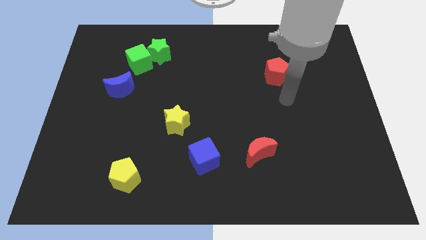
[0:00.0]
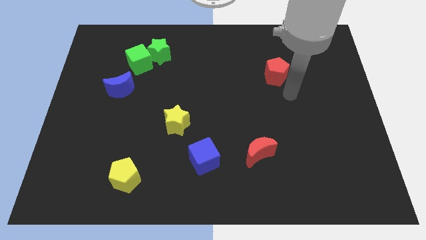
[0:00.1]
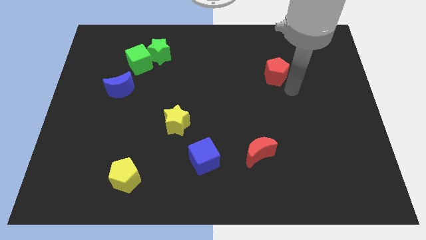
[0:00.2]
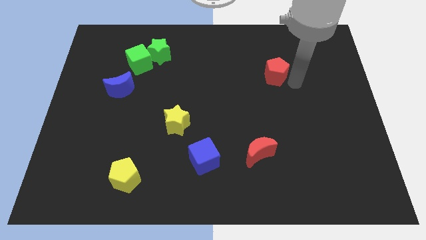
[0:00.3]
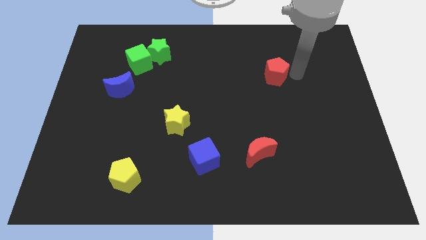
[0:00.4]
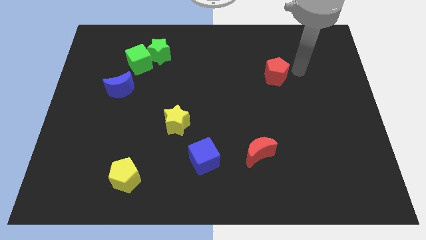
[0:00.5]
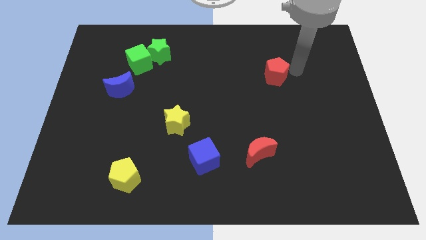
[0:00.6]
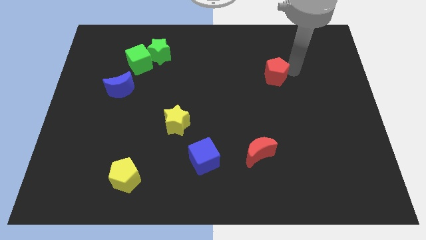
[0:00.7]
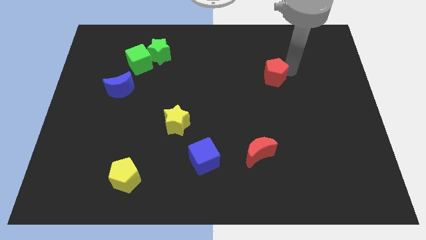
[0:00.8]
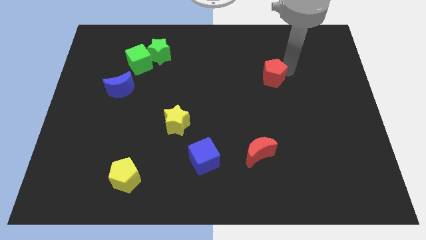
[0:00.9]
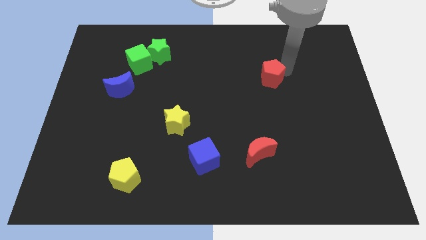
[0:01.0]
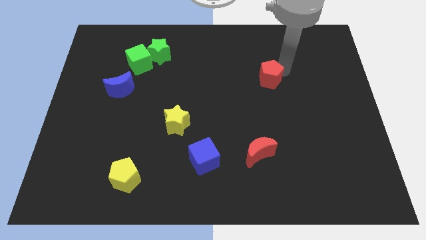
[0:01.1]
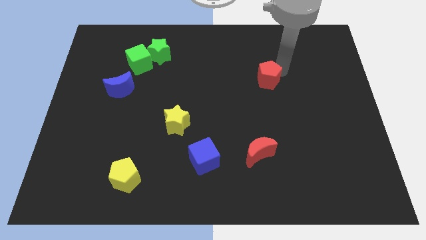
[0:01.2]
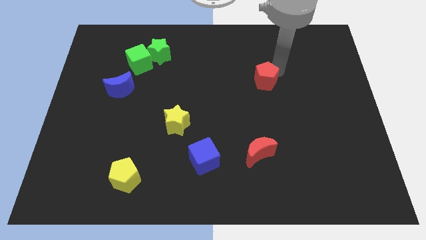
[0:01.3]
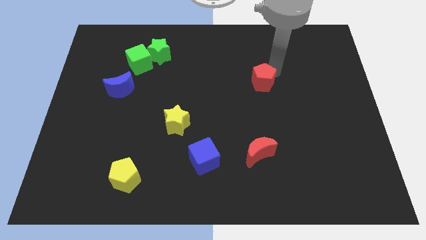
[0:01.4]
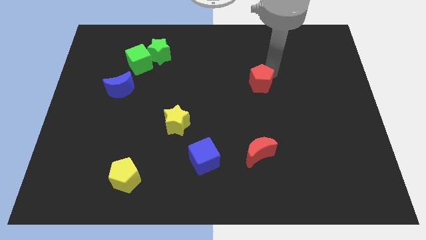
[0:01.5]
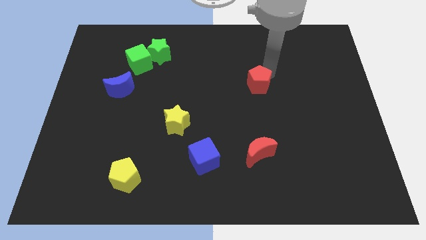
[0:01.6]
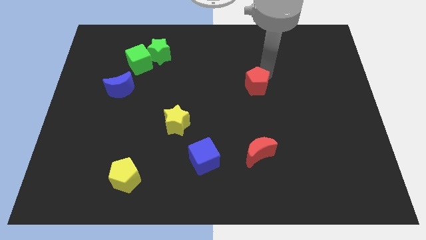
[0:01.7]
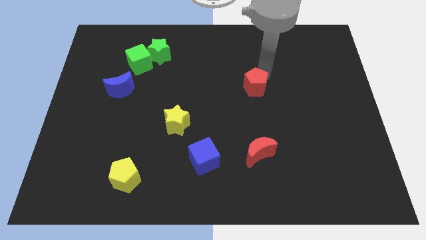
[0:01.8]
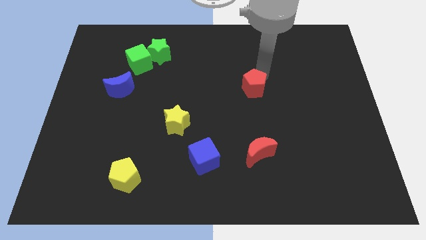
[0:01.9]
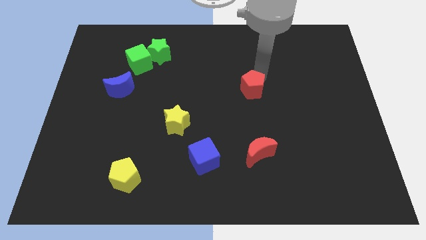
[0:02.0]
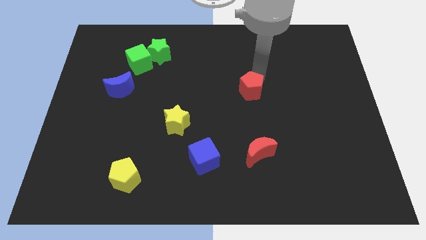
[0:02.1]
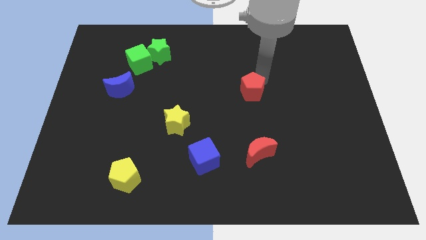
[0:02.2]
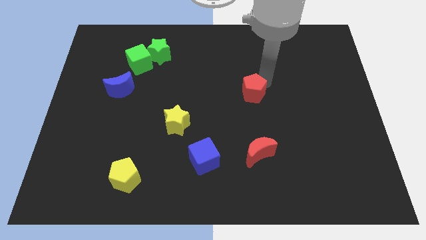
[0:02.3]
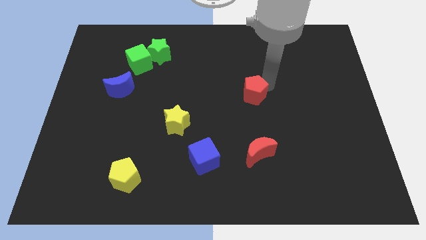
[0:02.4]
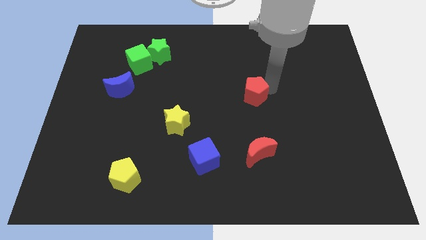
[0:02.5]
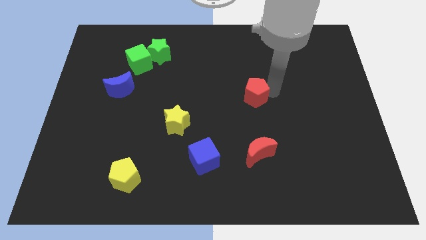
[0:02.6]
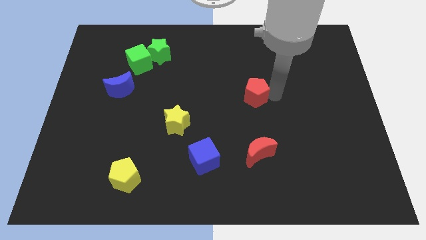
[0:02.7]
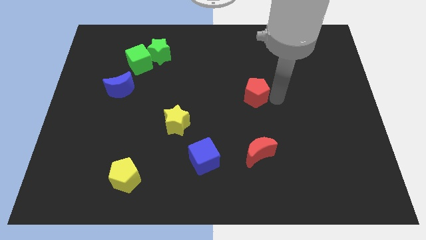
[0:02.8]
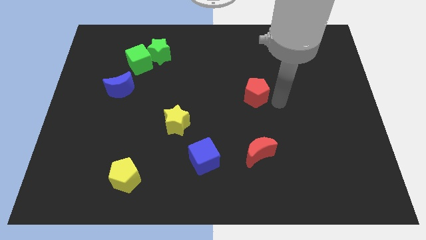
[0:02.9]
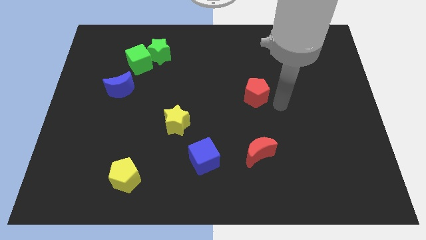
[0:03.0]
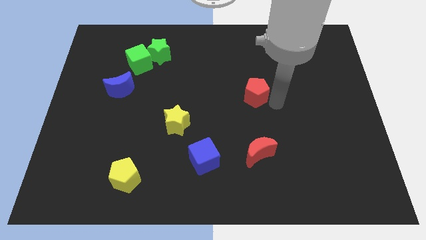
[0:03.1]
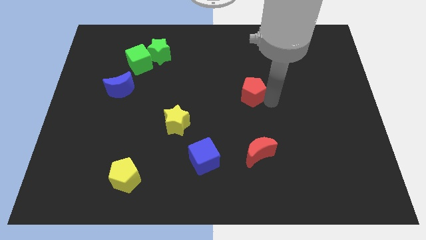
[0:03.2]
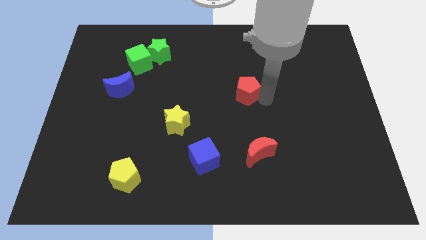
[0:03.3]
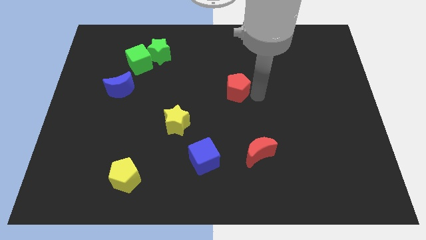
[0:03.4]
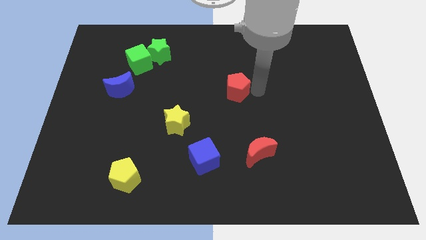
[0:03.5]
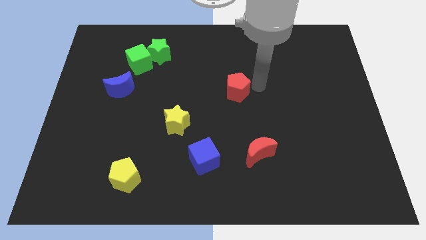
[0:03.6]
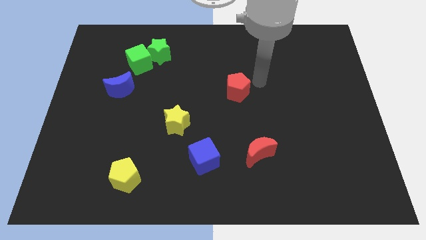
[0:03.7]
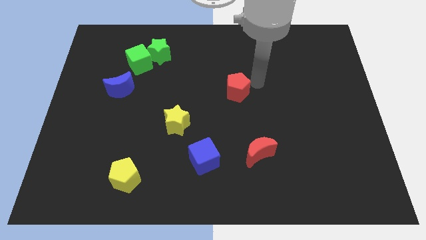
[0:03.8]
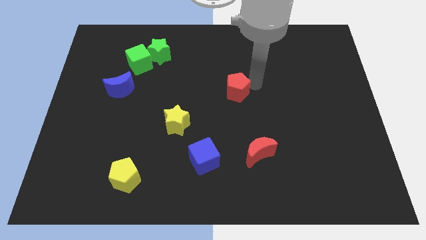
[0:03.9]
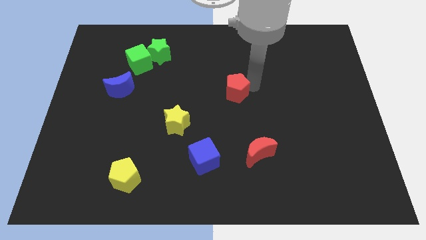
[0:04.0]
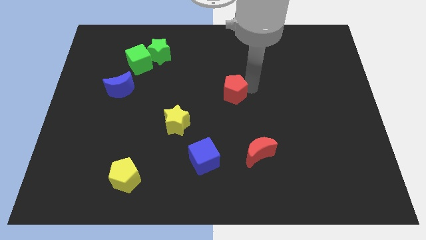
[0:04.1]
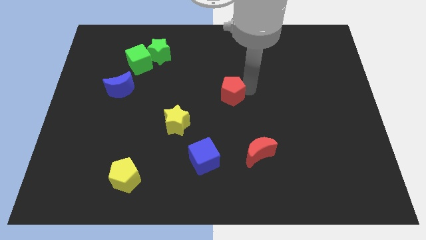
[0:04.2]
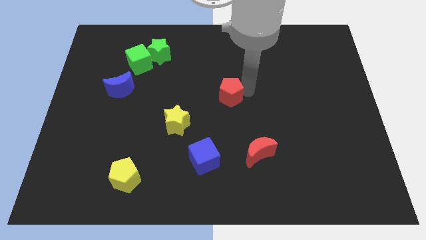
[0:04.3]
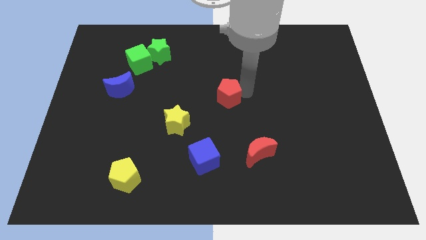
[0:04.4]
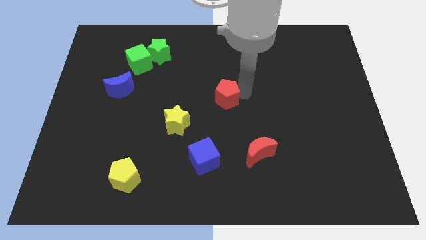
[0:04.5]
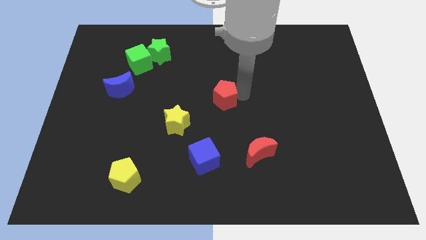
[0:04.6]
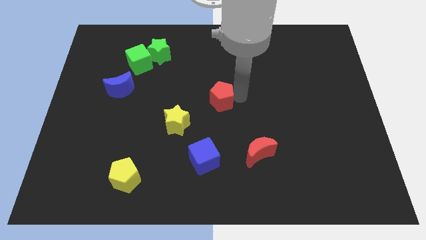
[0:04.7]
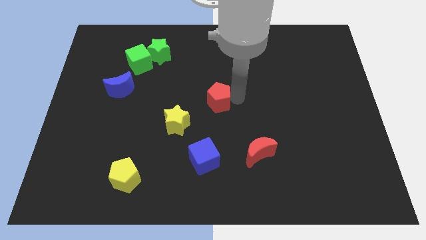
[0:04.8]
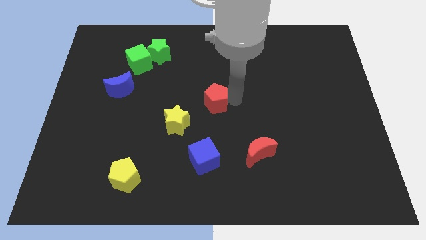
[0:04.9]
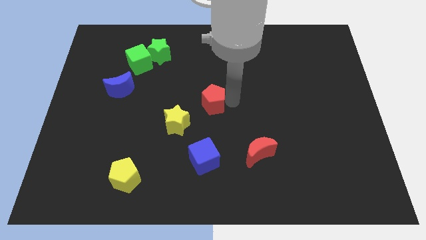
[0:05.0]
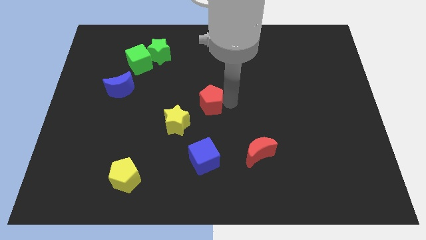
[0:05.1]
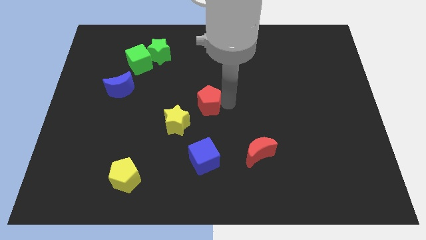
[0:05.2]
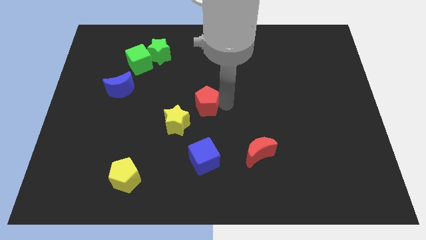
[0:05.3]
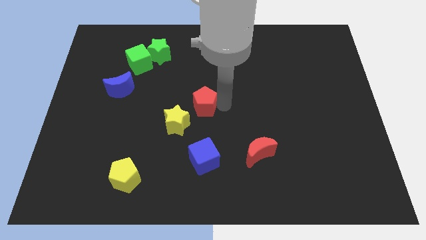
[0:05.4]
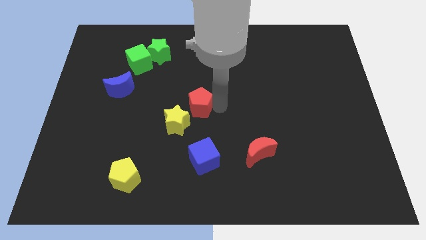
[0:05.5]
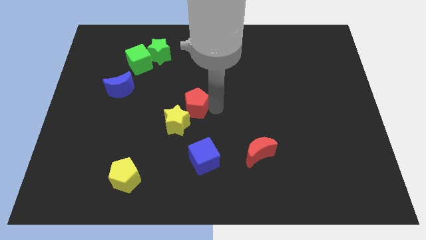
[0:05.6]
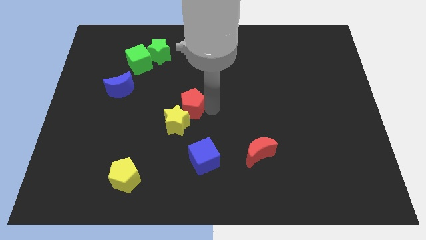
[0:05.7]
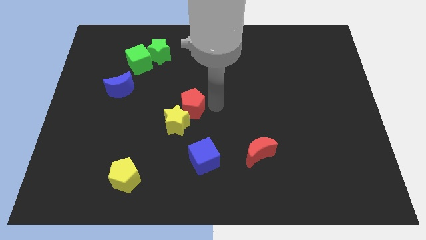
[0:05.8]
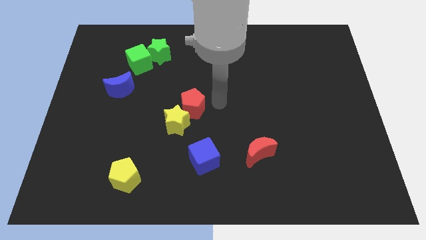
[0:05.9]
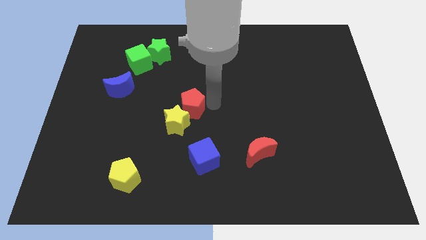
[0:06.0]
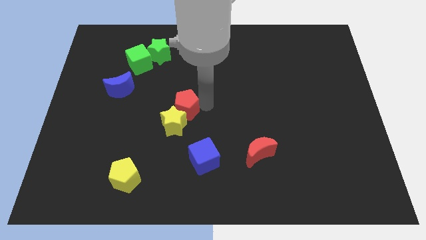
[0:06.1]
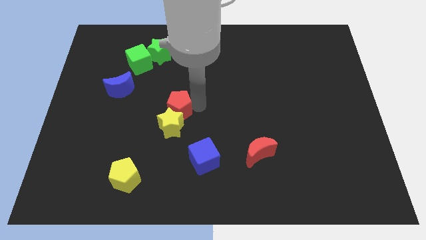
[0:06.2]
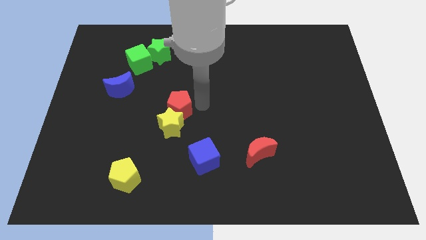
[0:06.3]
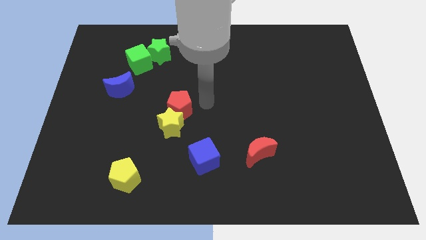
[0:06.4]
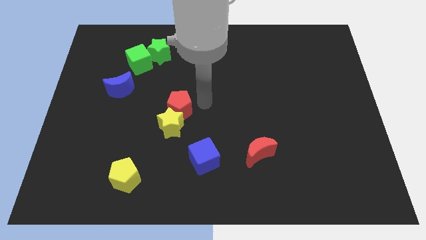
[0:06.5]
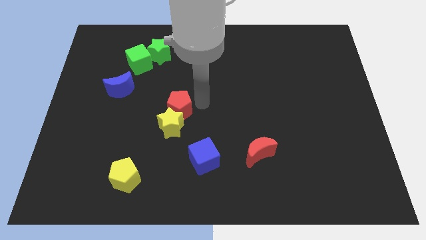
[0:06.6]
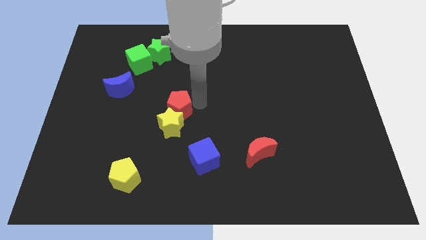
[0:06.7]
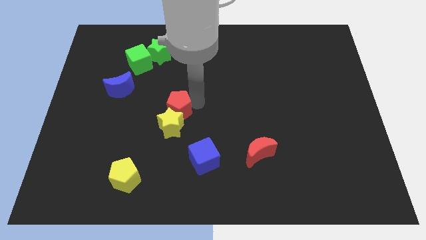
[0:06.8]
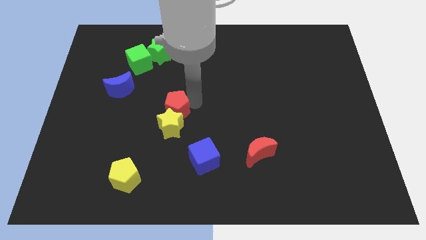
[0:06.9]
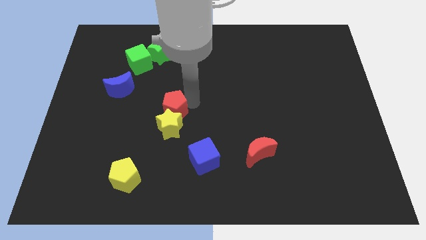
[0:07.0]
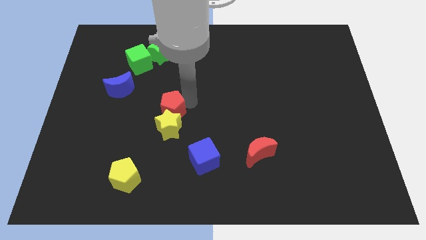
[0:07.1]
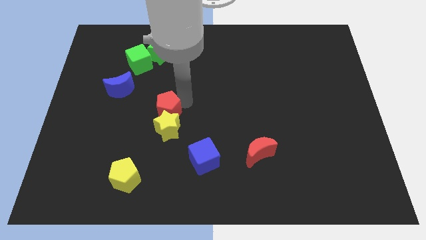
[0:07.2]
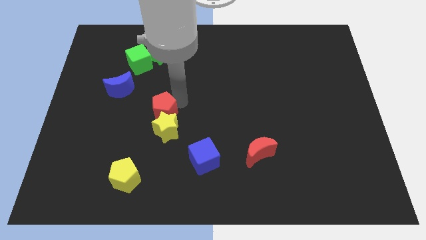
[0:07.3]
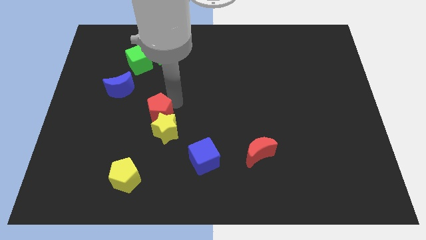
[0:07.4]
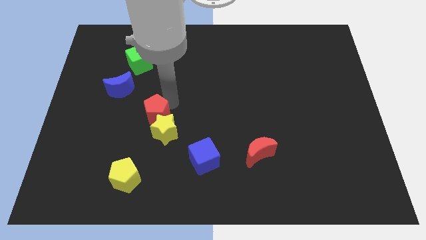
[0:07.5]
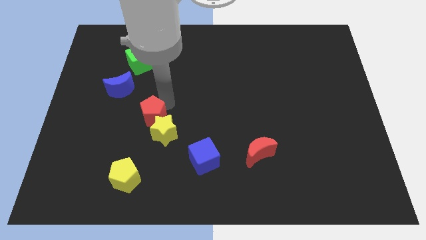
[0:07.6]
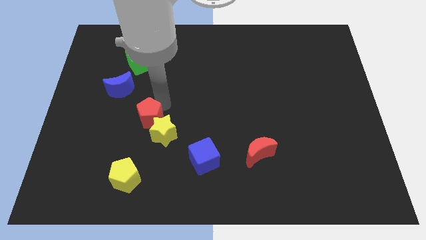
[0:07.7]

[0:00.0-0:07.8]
put the red pentagon just left of the yellow star

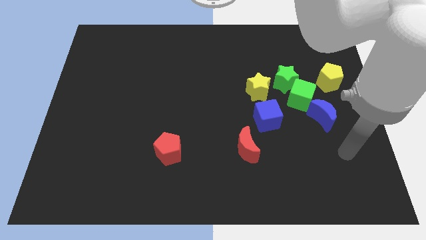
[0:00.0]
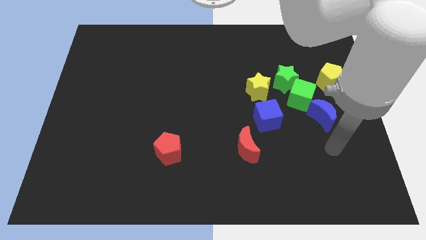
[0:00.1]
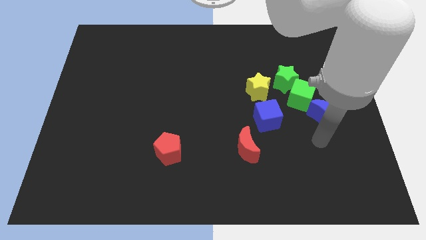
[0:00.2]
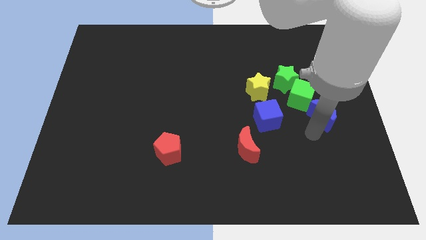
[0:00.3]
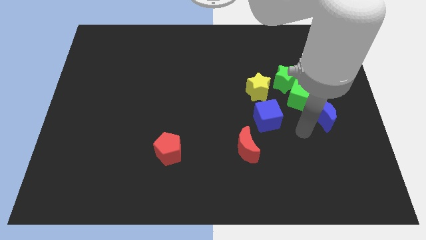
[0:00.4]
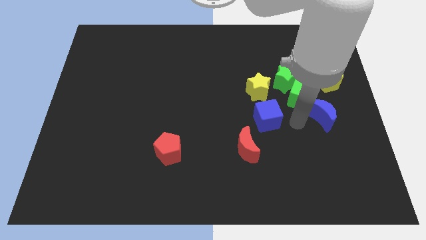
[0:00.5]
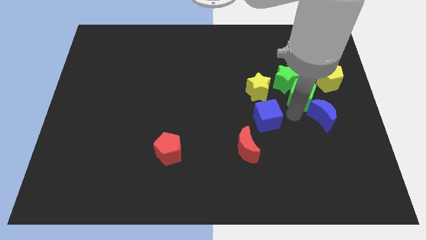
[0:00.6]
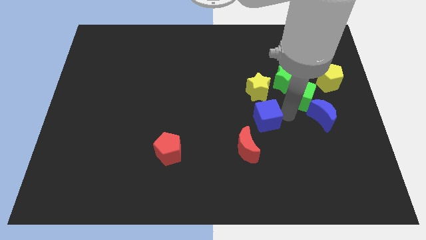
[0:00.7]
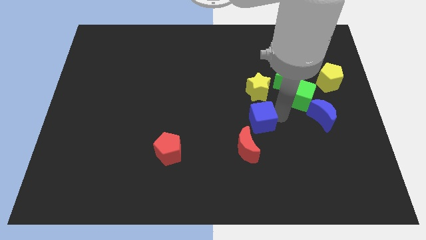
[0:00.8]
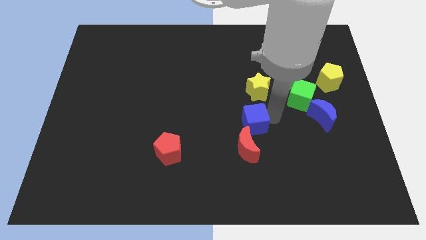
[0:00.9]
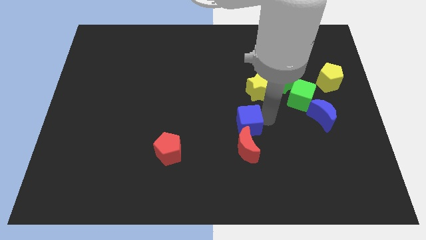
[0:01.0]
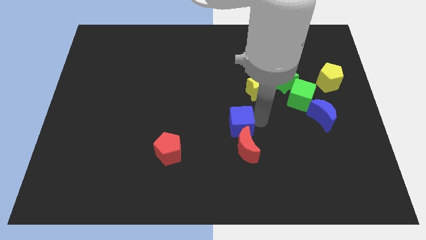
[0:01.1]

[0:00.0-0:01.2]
move the blue cube to the top left side of the red moon
